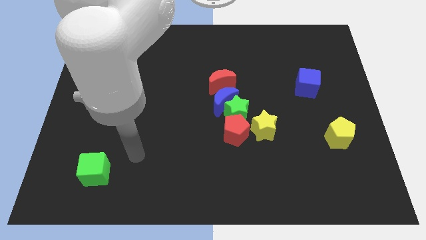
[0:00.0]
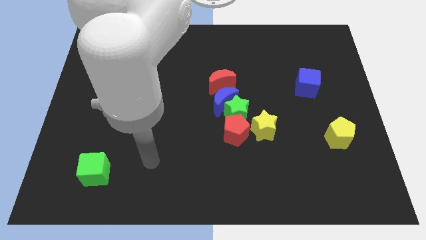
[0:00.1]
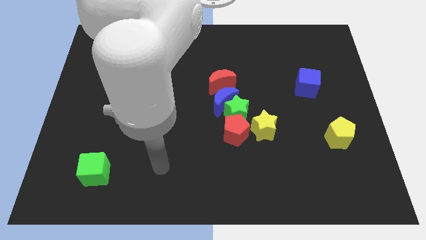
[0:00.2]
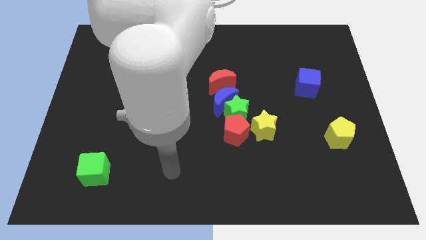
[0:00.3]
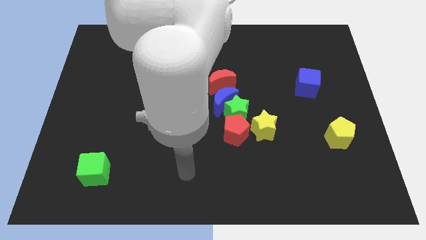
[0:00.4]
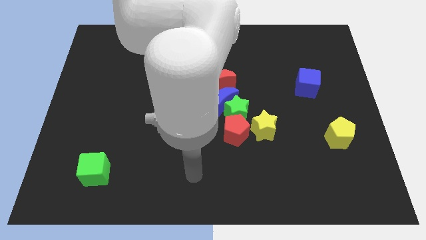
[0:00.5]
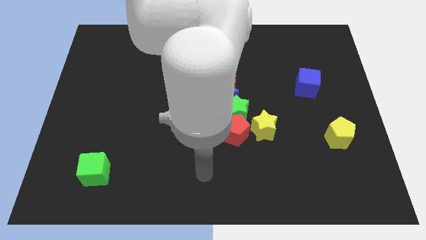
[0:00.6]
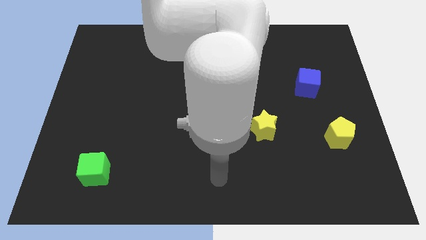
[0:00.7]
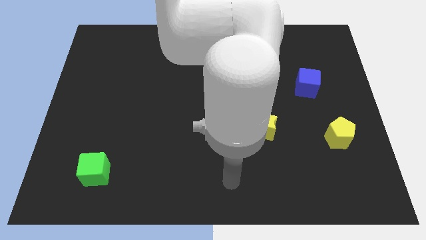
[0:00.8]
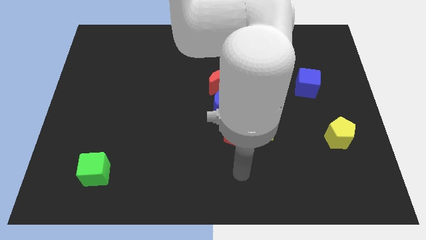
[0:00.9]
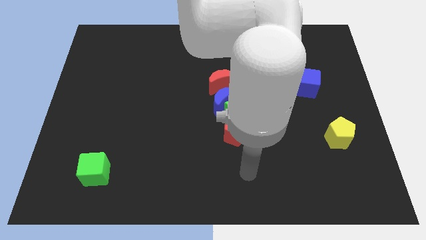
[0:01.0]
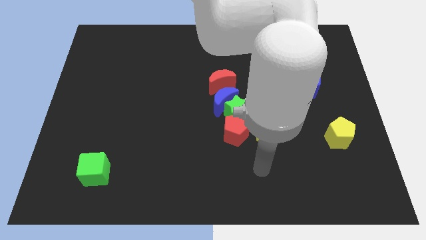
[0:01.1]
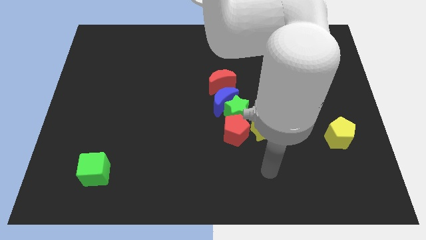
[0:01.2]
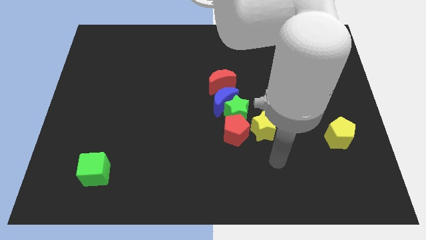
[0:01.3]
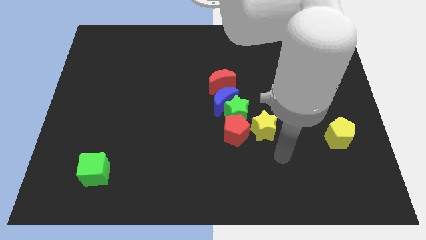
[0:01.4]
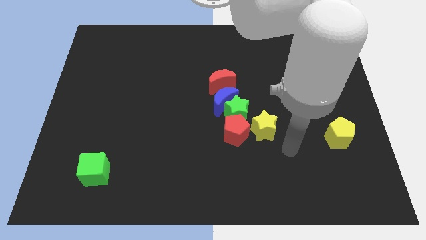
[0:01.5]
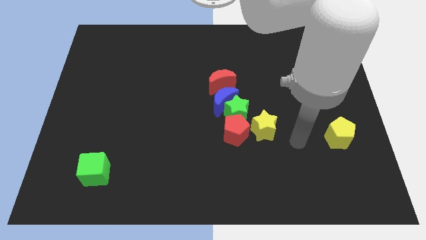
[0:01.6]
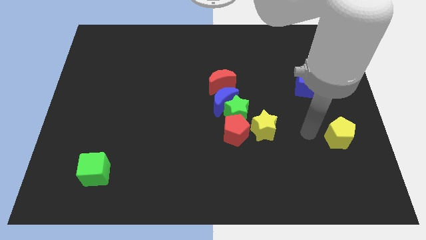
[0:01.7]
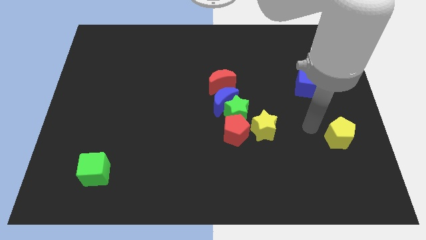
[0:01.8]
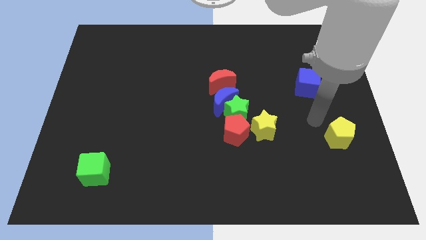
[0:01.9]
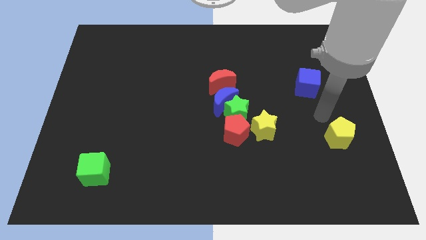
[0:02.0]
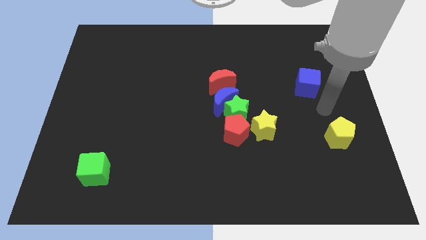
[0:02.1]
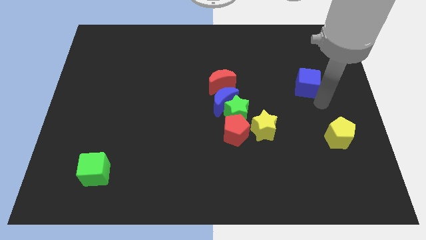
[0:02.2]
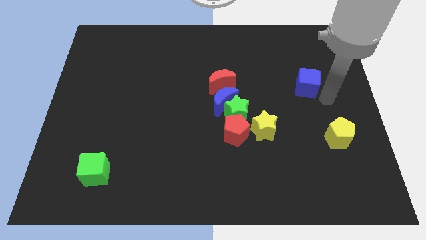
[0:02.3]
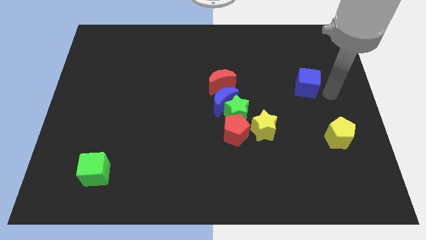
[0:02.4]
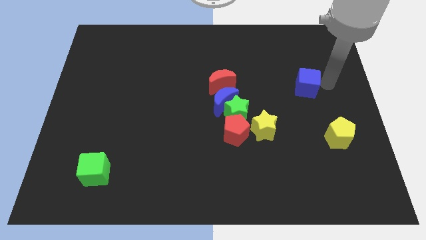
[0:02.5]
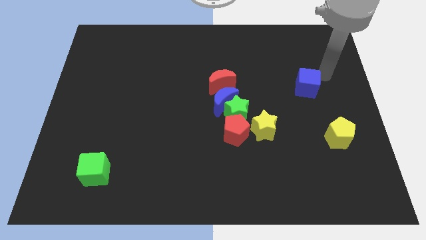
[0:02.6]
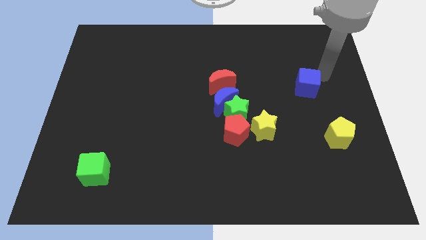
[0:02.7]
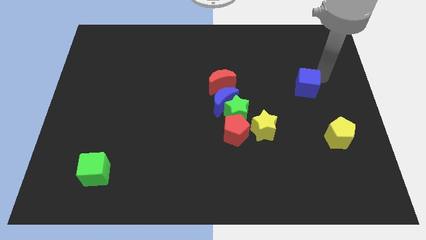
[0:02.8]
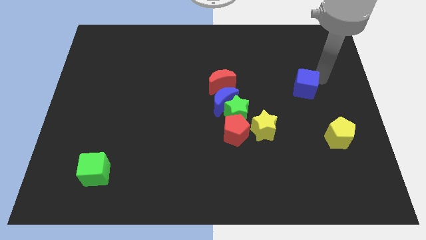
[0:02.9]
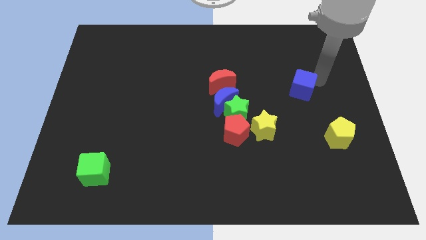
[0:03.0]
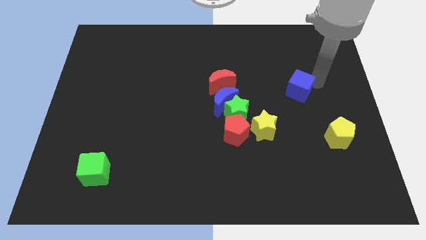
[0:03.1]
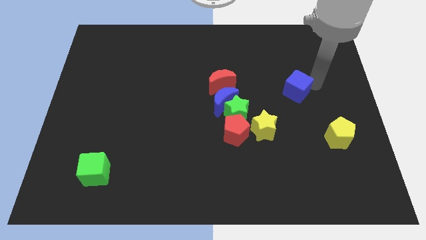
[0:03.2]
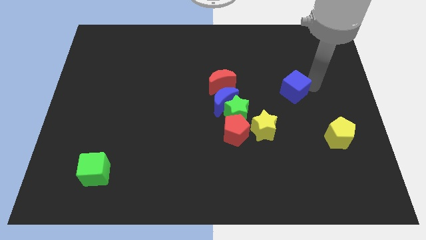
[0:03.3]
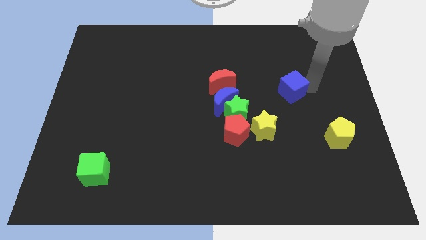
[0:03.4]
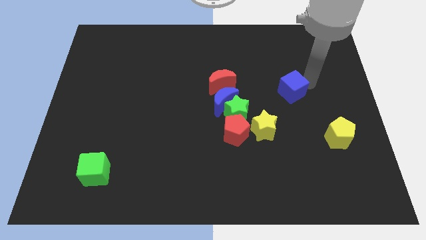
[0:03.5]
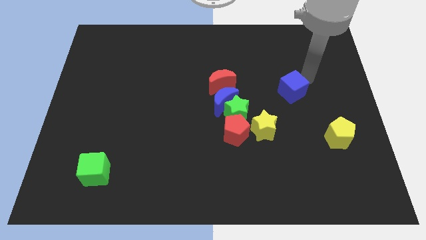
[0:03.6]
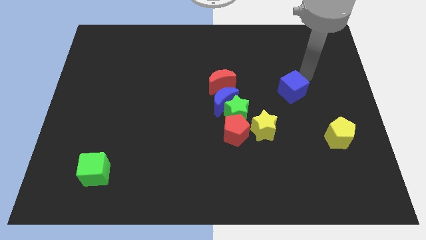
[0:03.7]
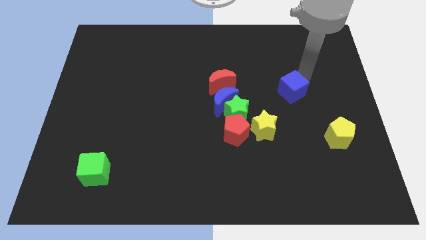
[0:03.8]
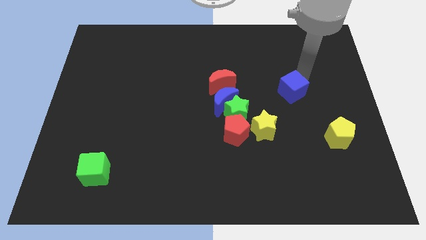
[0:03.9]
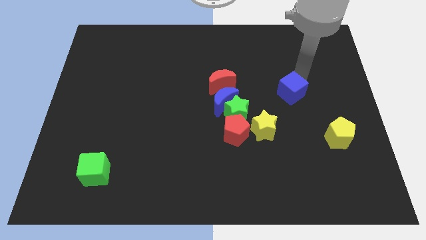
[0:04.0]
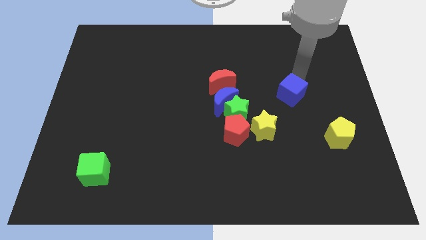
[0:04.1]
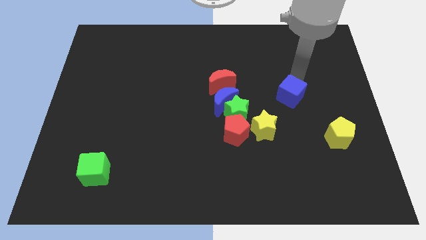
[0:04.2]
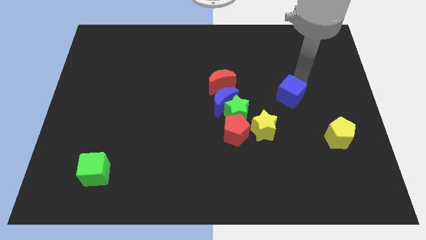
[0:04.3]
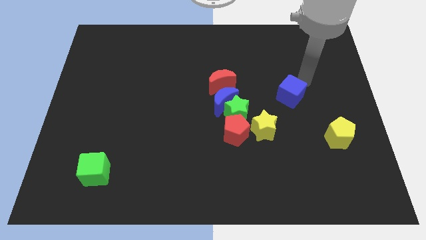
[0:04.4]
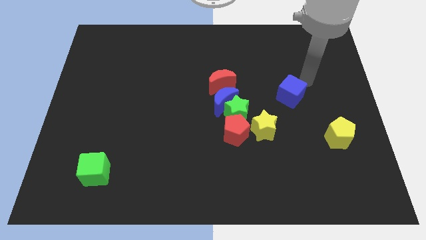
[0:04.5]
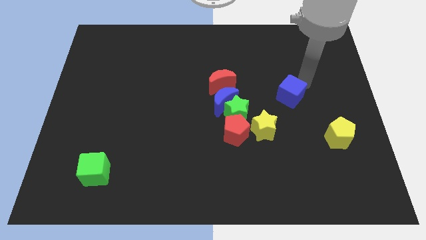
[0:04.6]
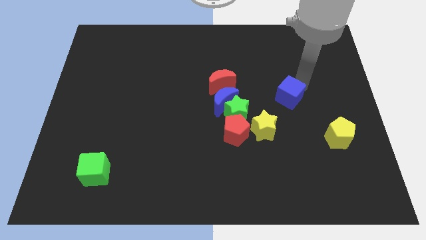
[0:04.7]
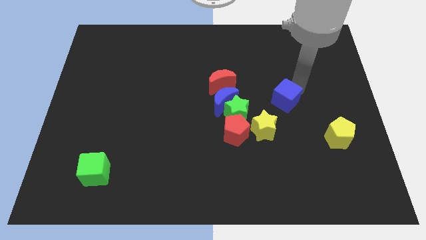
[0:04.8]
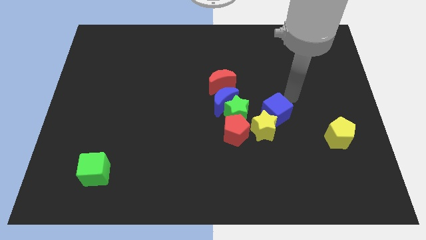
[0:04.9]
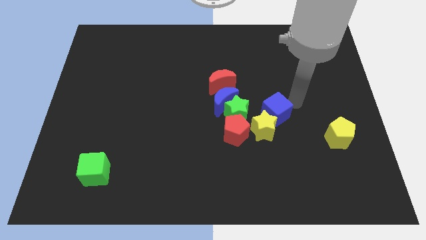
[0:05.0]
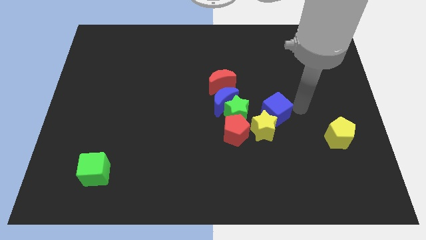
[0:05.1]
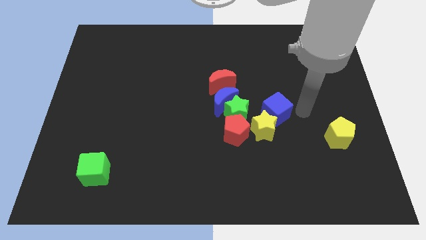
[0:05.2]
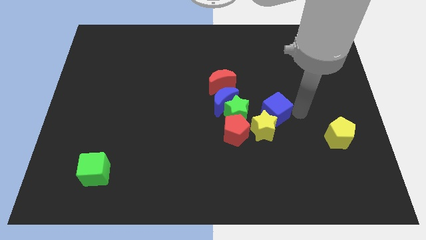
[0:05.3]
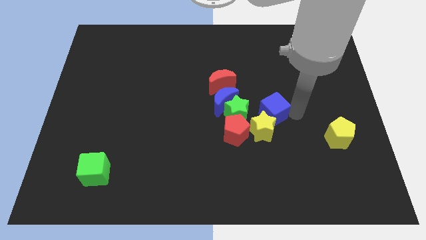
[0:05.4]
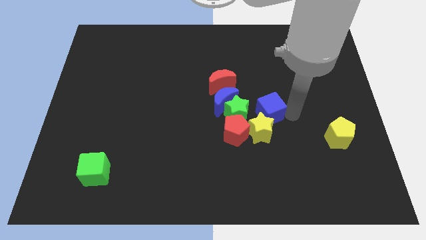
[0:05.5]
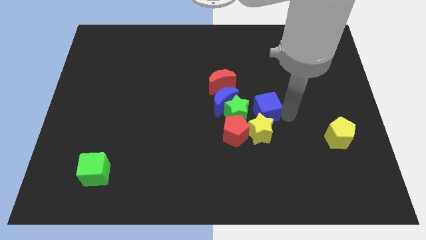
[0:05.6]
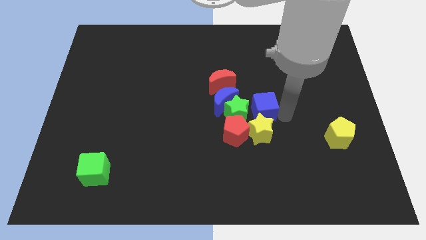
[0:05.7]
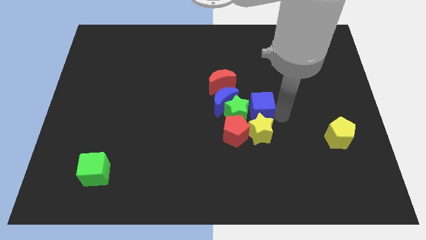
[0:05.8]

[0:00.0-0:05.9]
move the blue cube to the green star

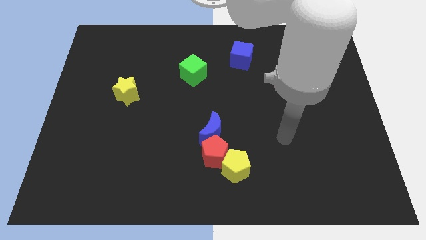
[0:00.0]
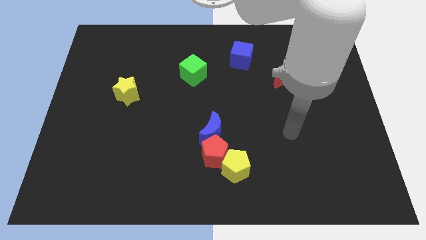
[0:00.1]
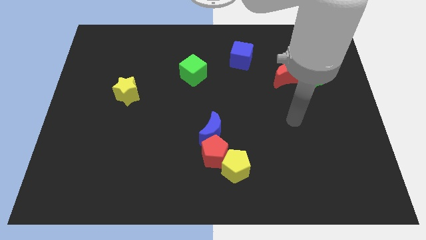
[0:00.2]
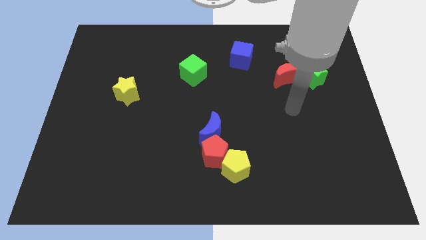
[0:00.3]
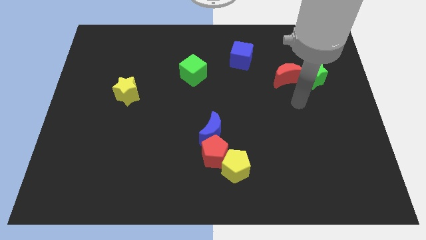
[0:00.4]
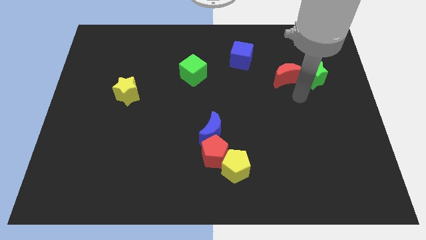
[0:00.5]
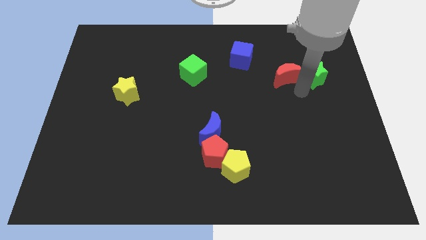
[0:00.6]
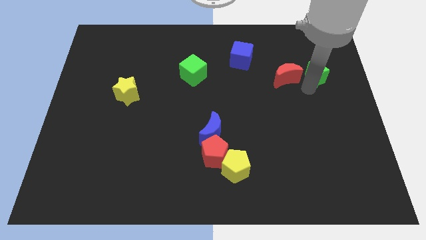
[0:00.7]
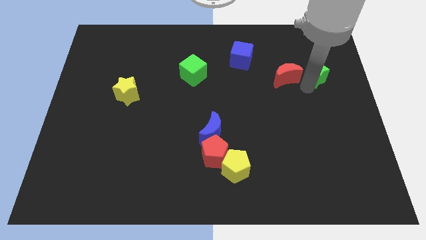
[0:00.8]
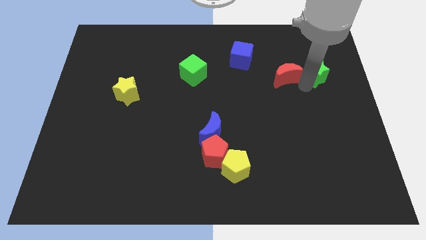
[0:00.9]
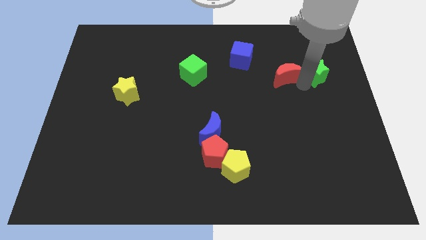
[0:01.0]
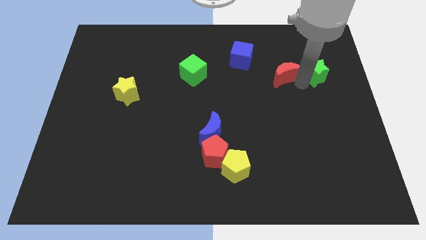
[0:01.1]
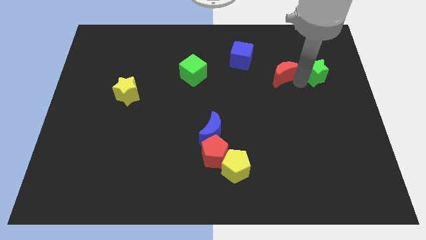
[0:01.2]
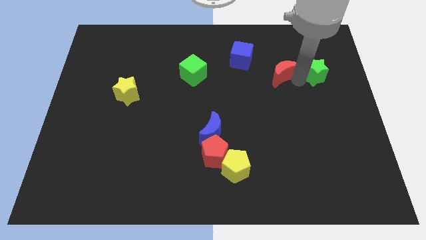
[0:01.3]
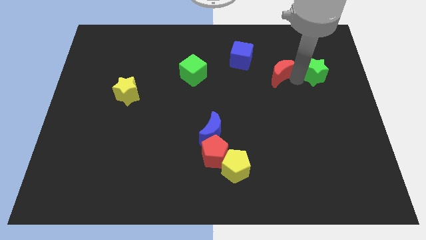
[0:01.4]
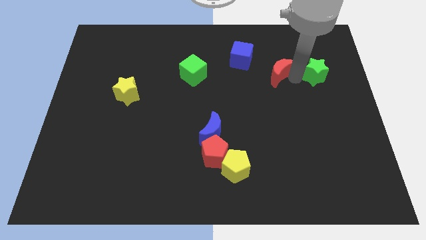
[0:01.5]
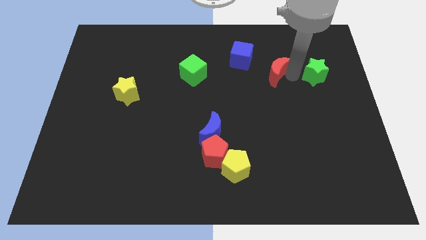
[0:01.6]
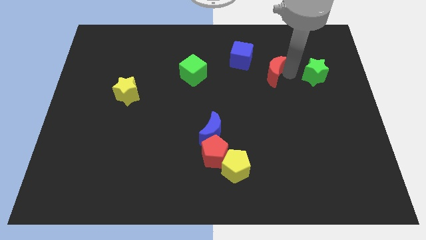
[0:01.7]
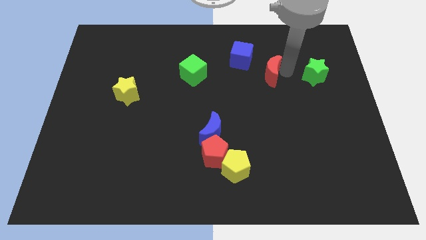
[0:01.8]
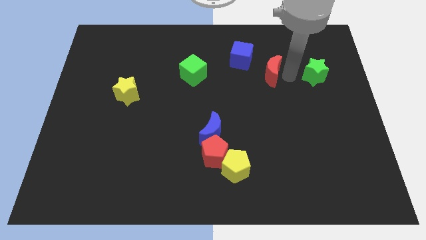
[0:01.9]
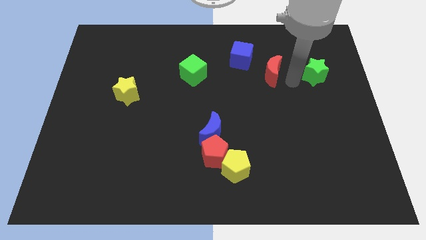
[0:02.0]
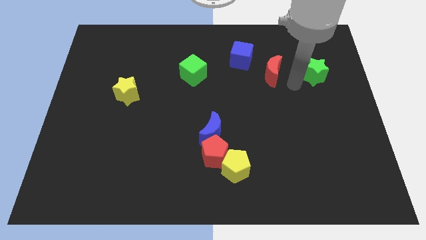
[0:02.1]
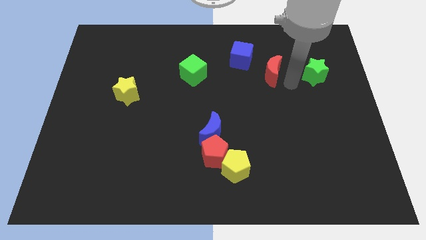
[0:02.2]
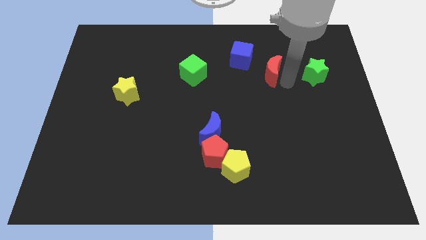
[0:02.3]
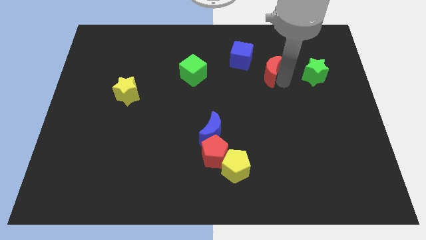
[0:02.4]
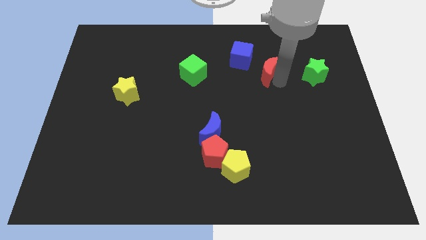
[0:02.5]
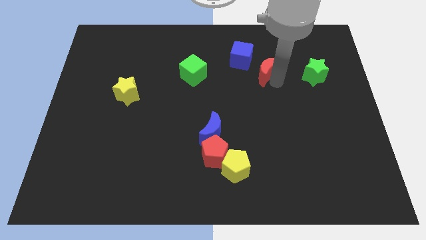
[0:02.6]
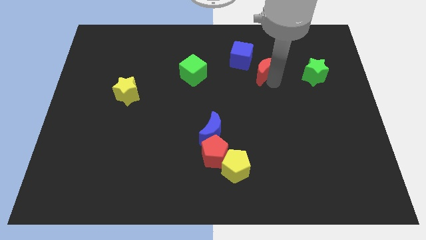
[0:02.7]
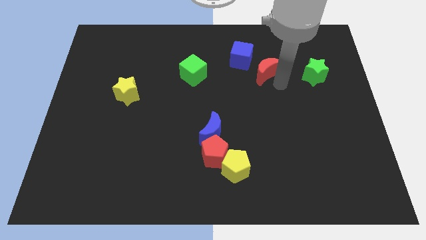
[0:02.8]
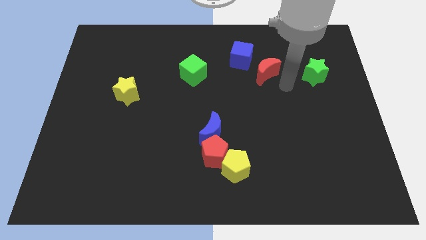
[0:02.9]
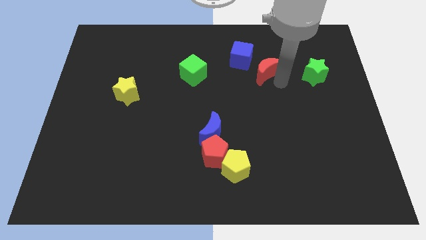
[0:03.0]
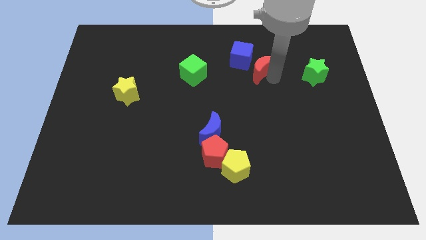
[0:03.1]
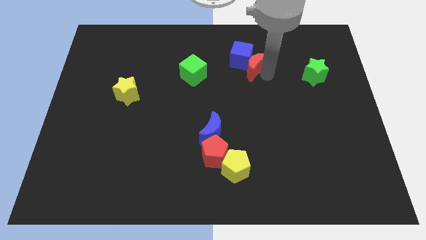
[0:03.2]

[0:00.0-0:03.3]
move the red moon next to the blue cube
